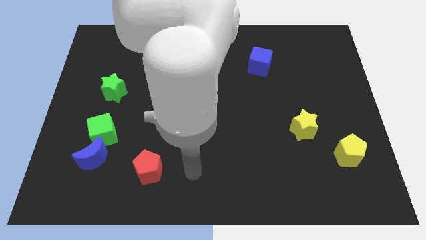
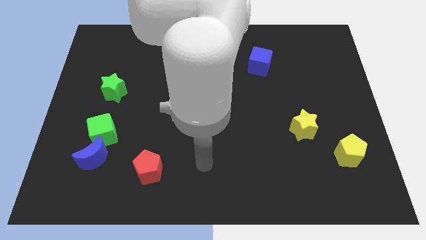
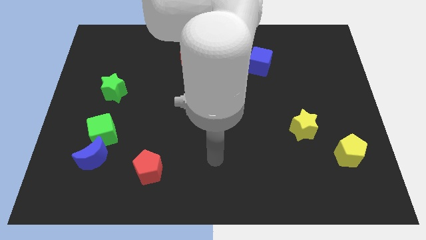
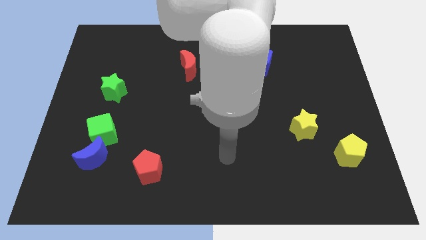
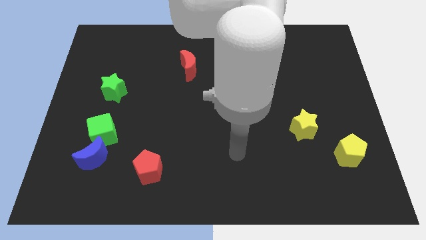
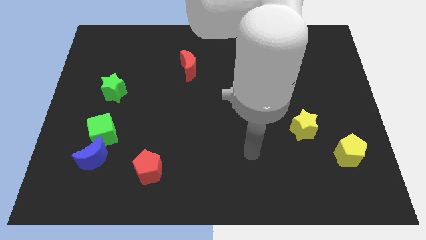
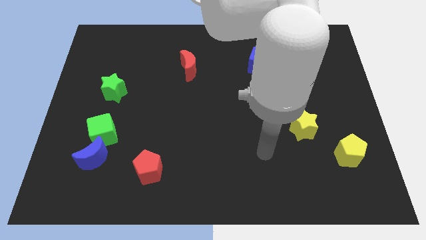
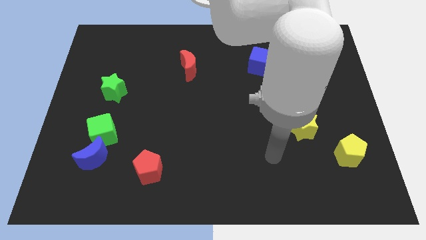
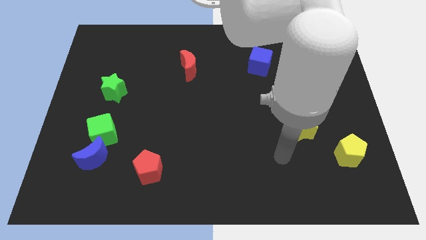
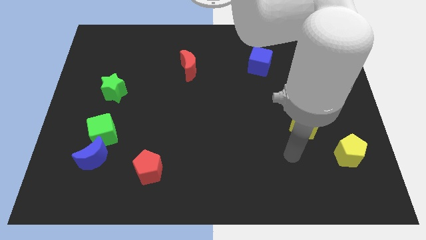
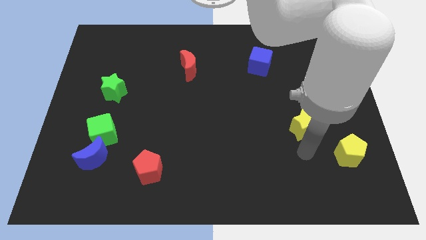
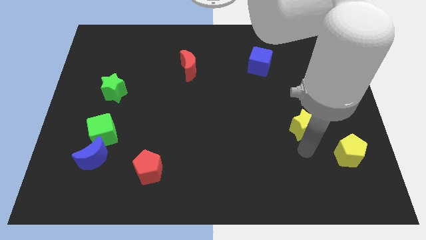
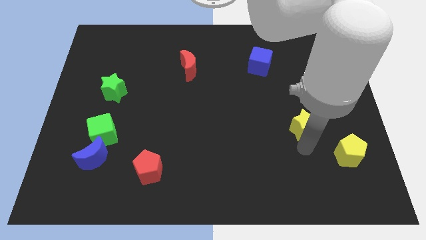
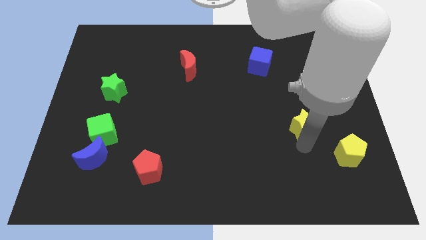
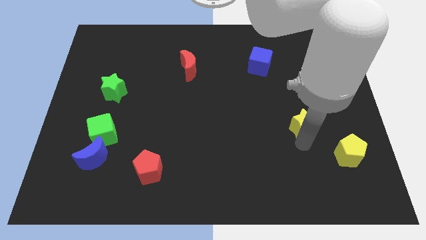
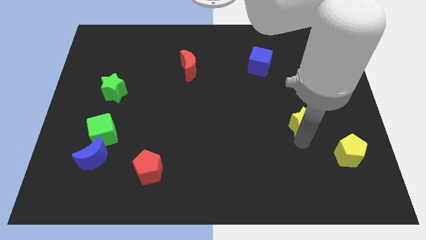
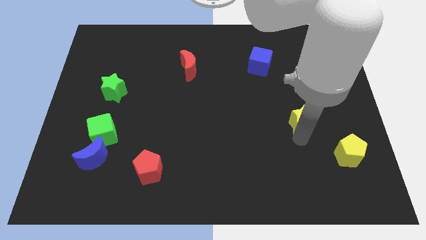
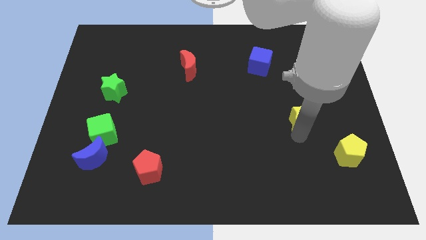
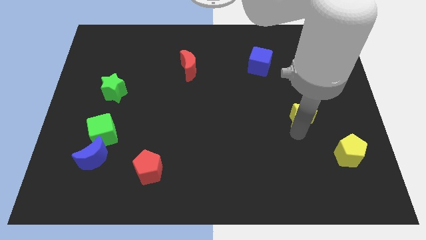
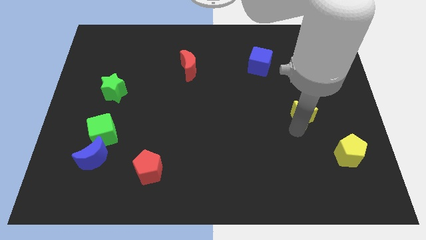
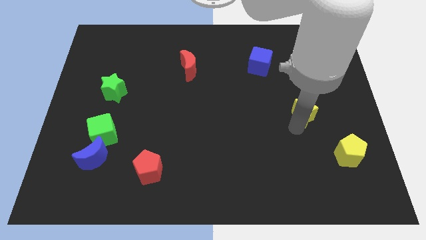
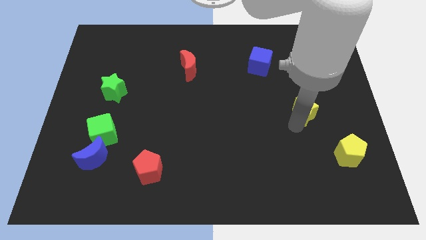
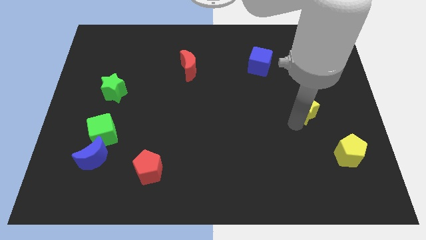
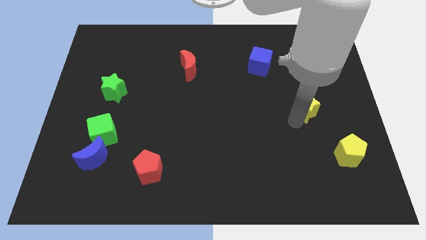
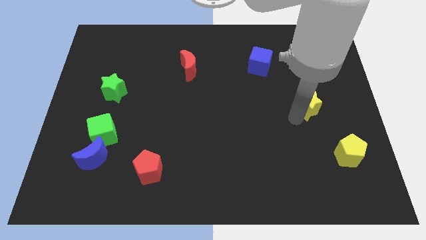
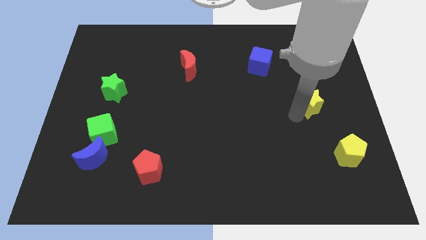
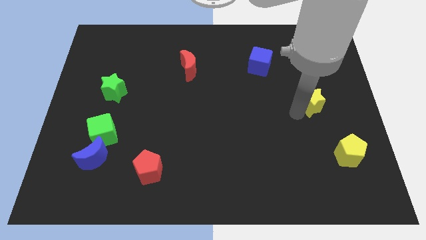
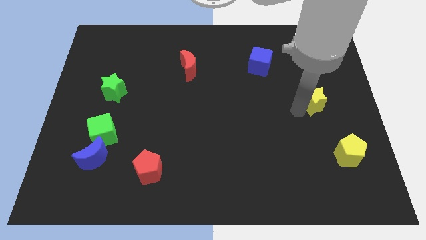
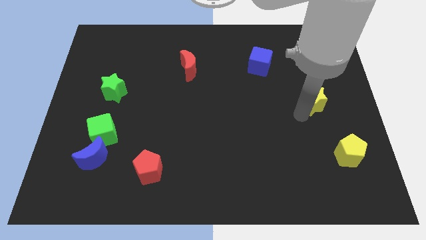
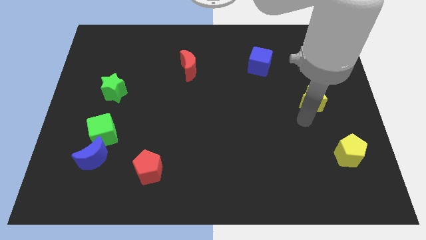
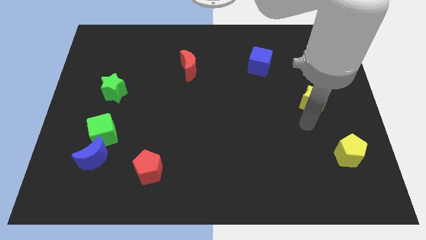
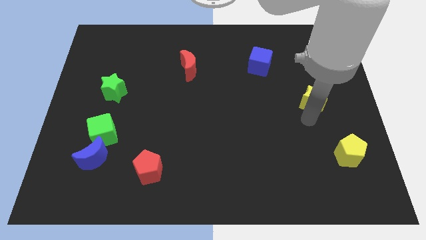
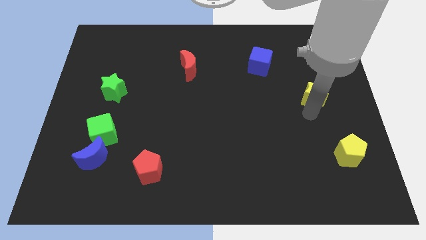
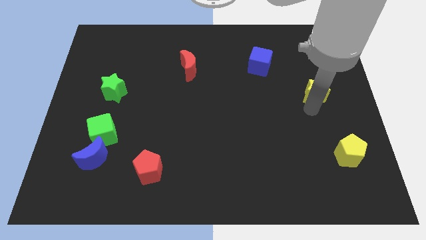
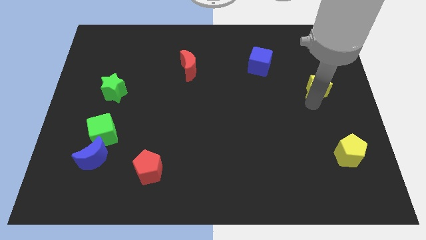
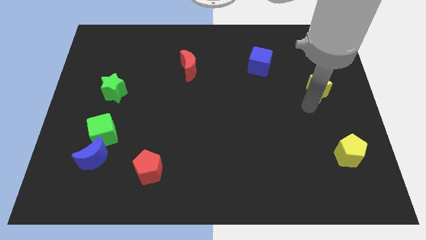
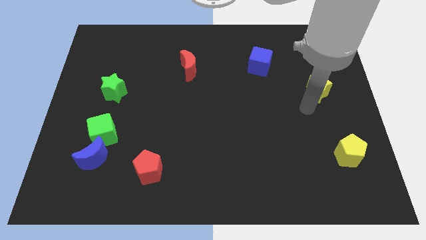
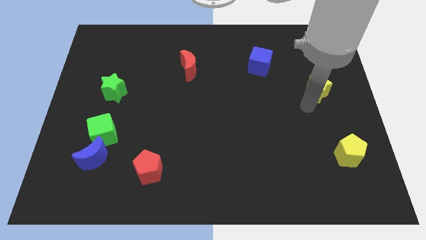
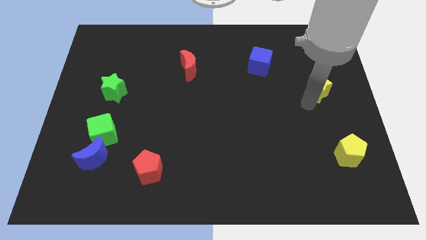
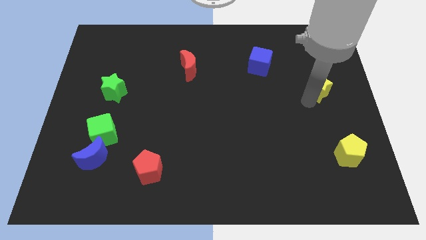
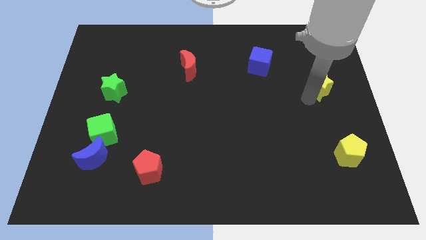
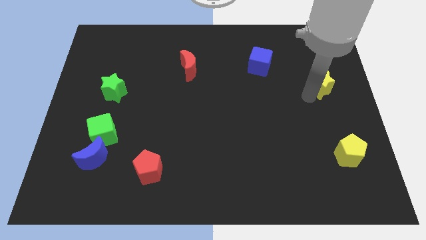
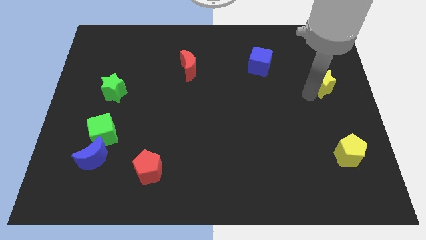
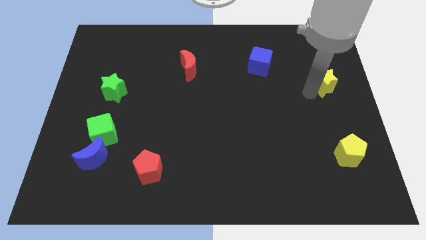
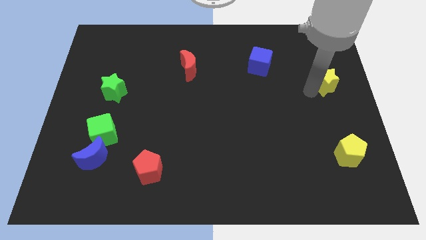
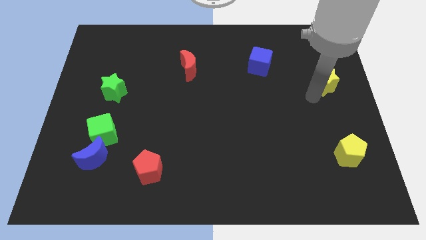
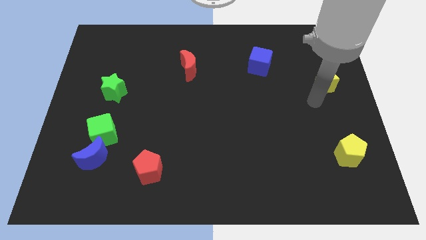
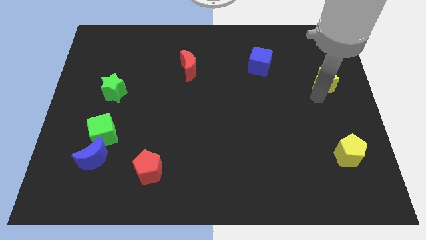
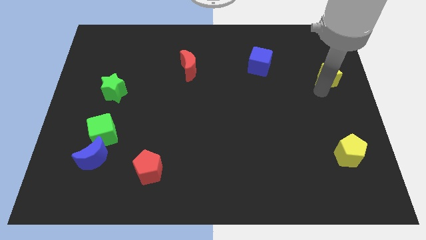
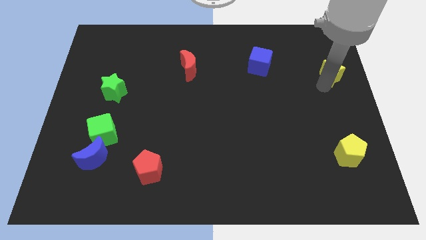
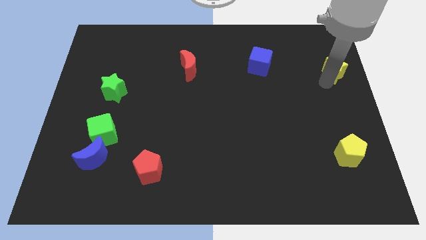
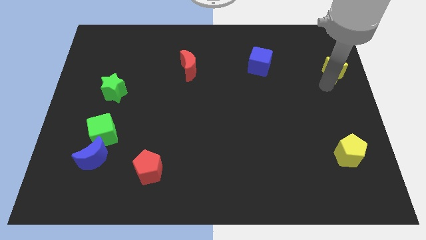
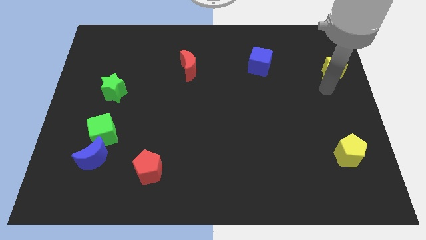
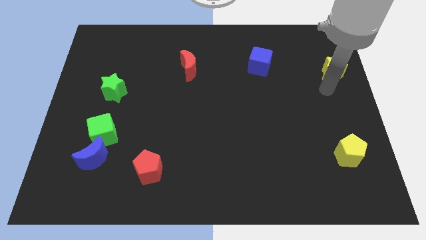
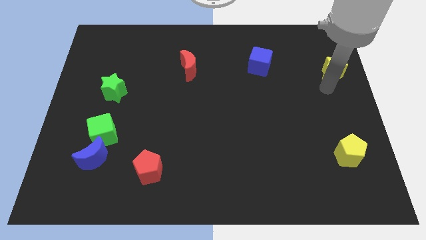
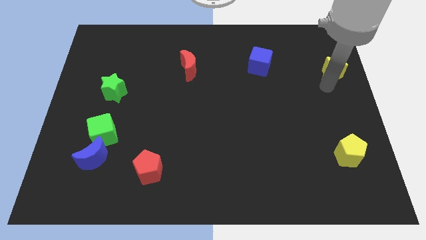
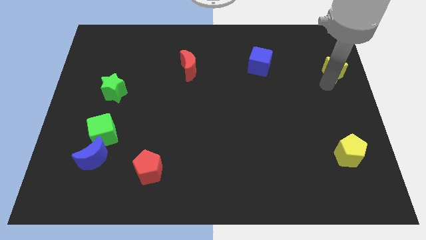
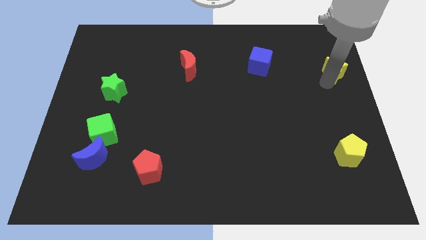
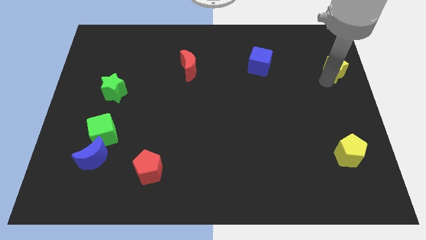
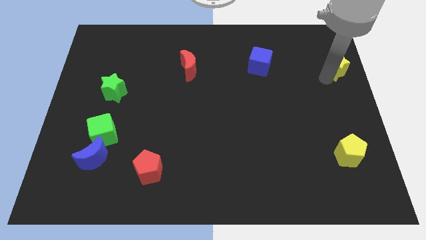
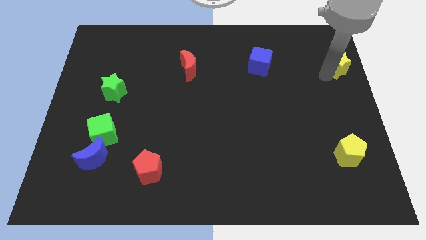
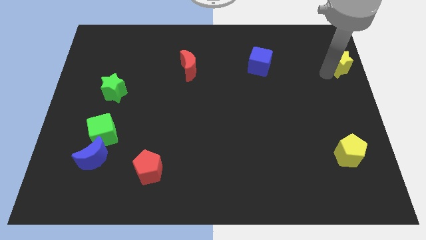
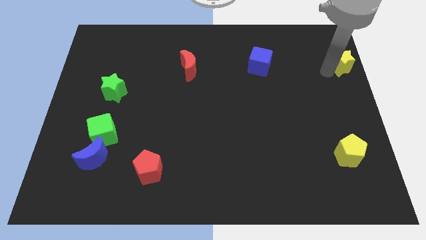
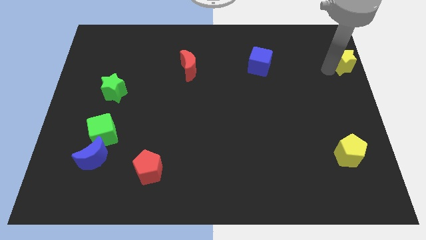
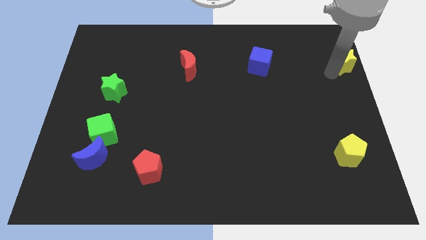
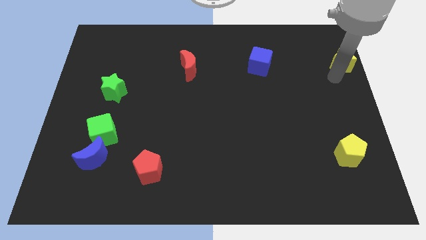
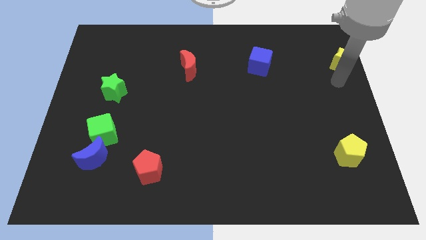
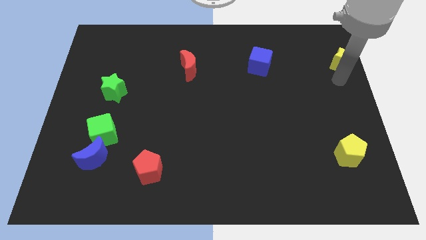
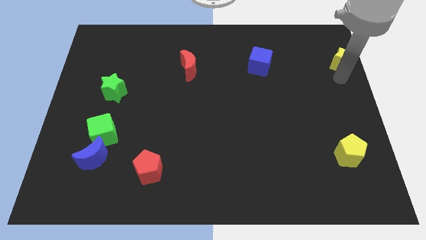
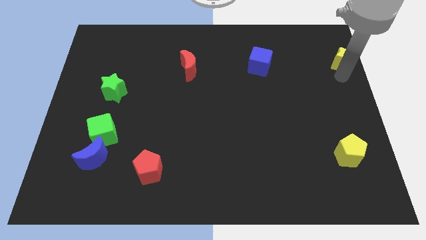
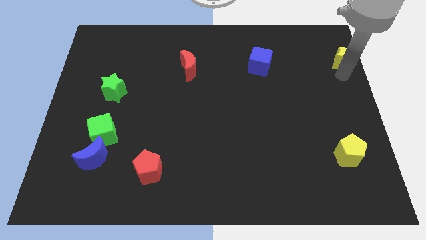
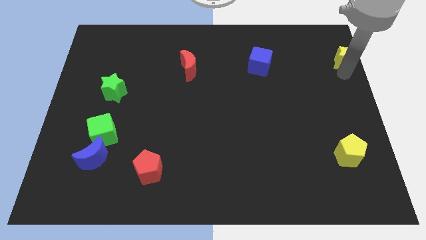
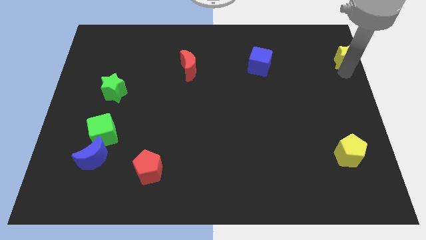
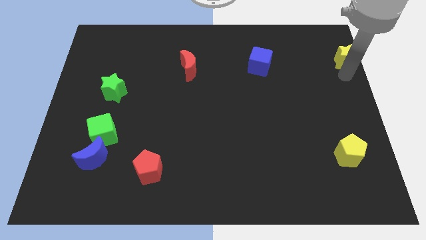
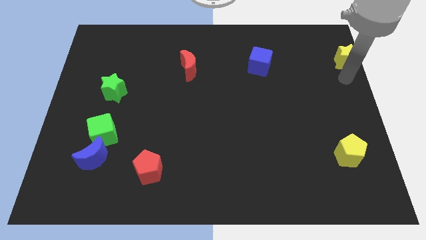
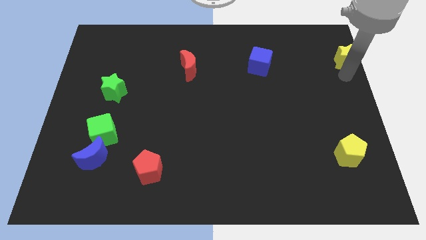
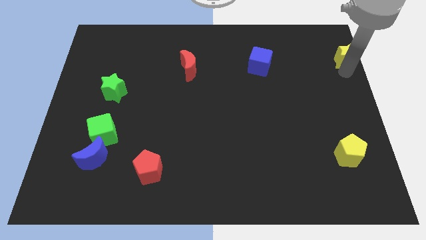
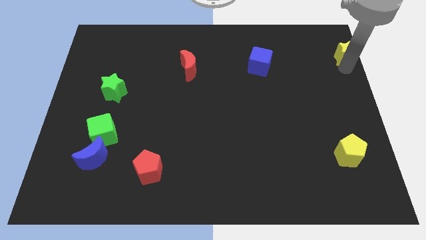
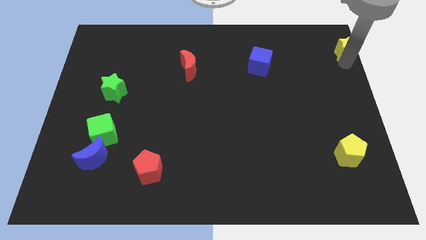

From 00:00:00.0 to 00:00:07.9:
move the yellow star to the top right of the board
